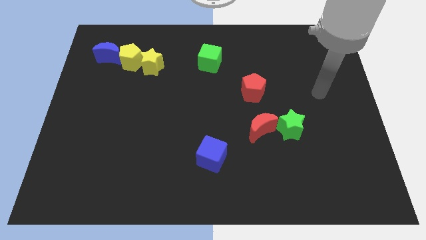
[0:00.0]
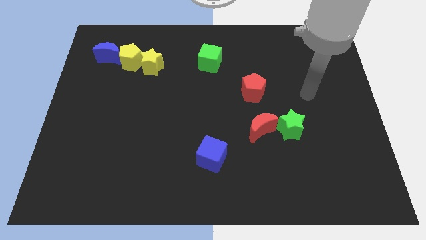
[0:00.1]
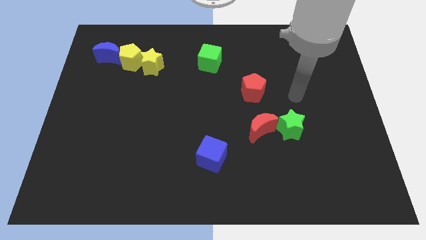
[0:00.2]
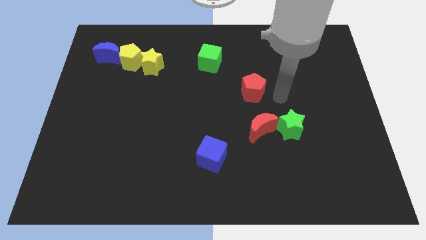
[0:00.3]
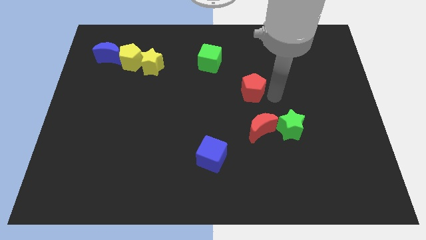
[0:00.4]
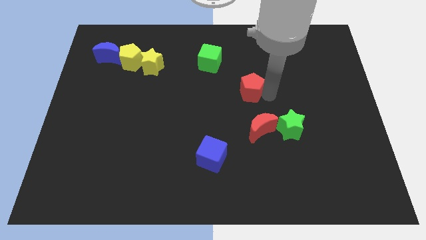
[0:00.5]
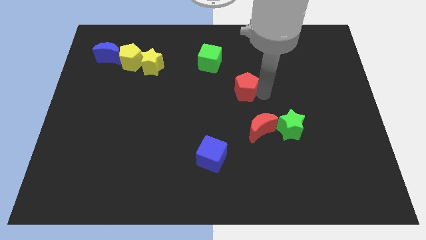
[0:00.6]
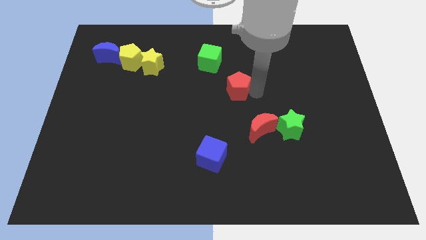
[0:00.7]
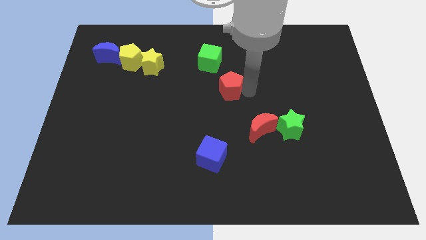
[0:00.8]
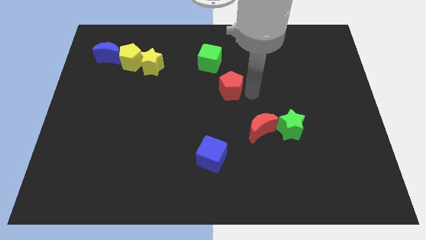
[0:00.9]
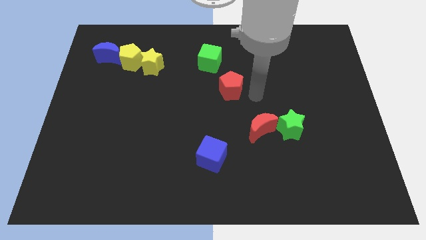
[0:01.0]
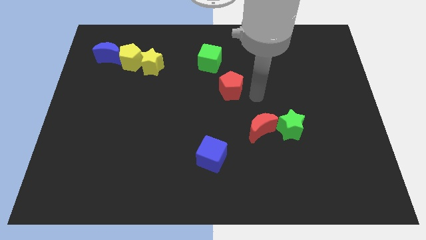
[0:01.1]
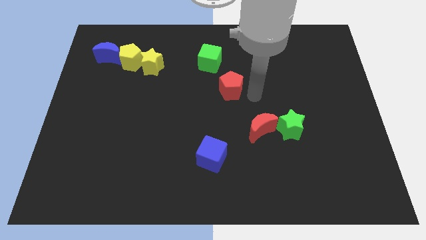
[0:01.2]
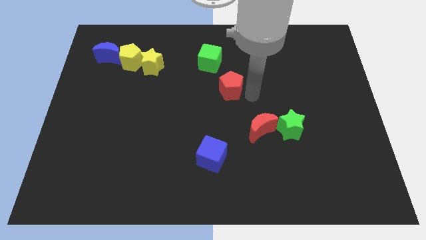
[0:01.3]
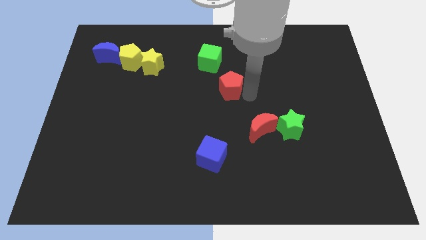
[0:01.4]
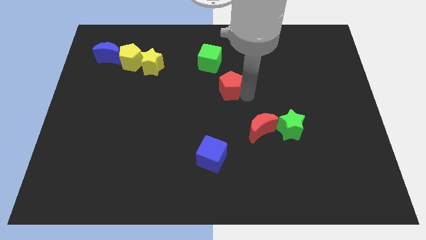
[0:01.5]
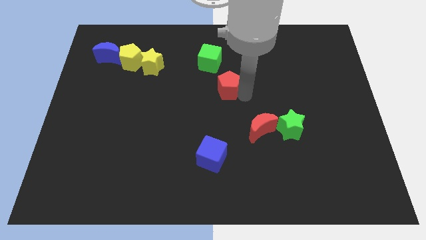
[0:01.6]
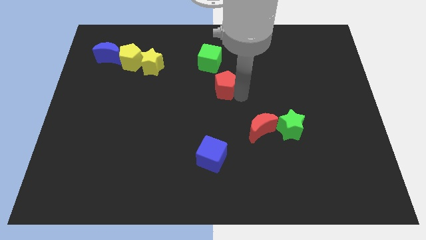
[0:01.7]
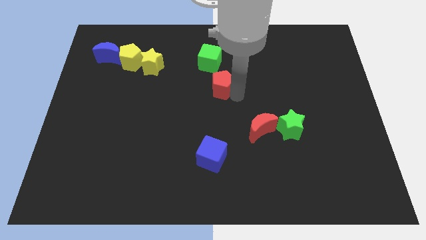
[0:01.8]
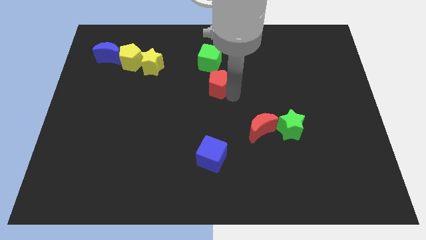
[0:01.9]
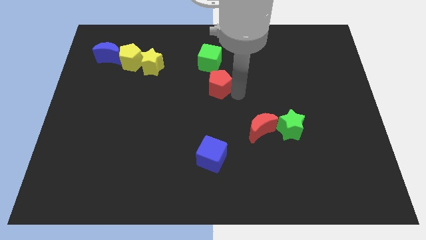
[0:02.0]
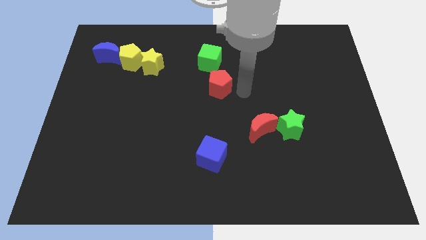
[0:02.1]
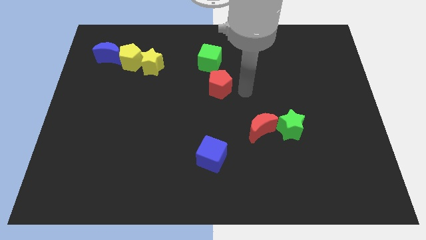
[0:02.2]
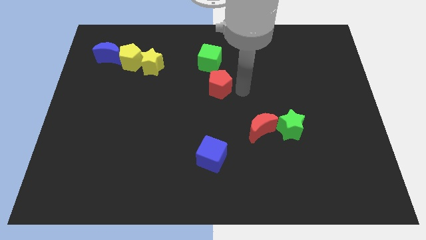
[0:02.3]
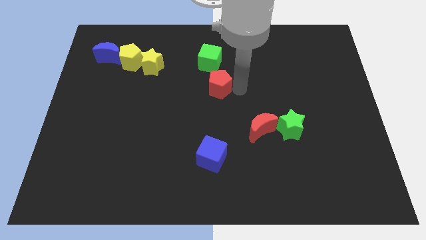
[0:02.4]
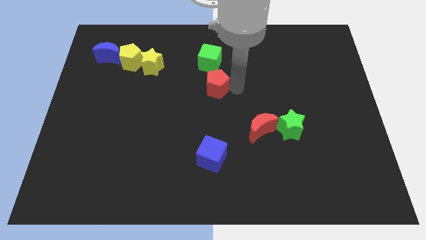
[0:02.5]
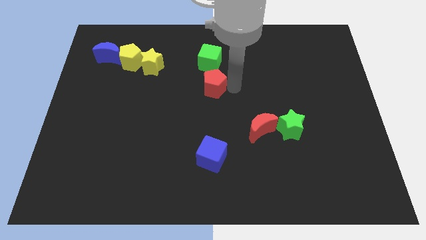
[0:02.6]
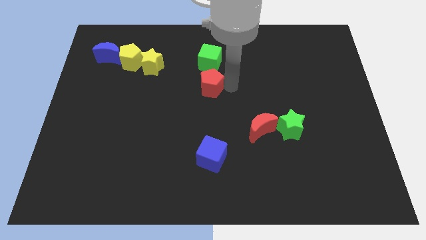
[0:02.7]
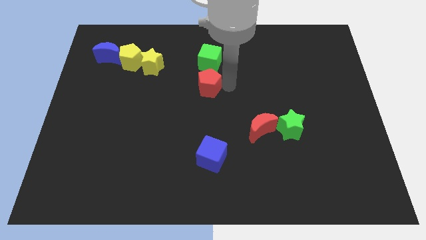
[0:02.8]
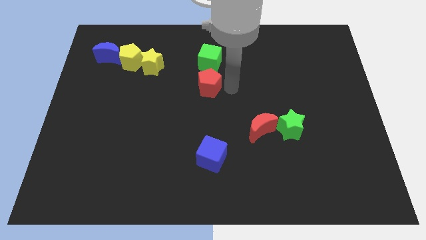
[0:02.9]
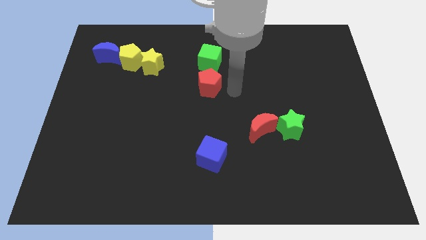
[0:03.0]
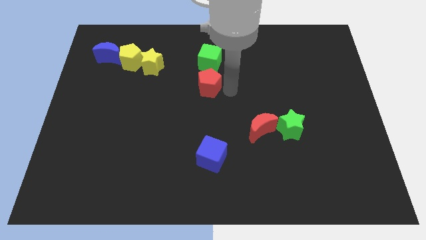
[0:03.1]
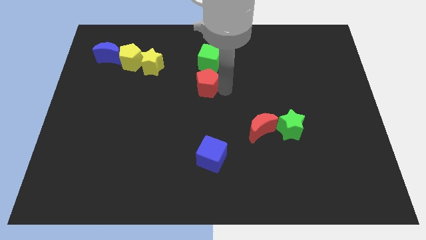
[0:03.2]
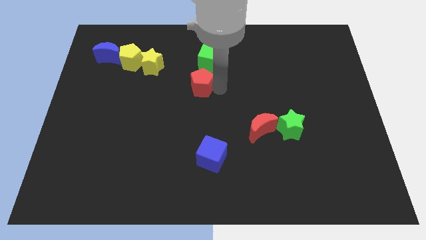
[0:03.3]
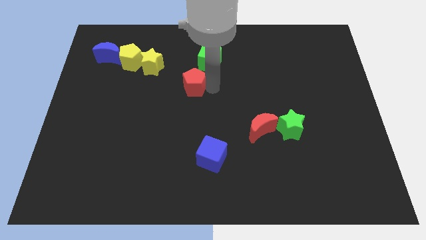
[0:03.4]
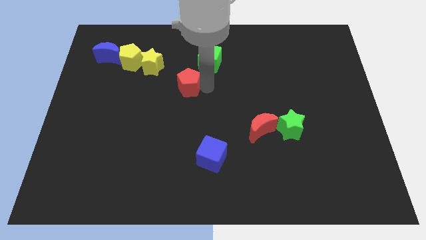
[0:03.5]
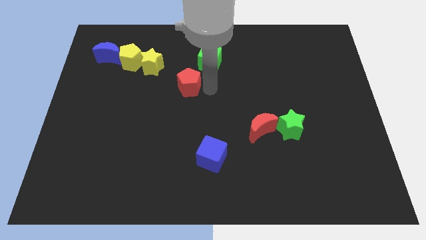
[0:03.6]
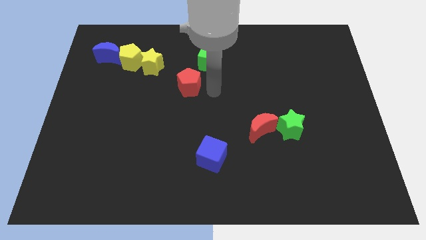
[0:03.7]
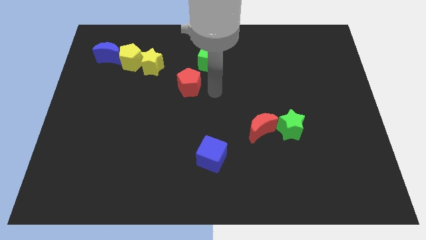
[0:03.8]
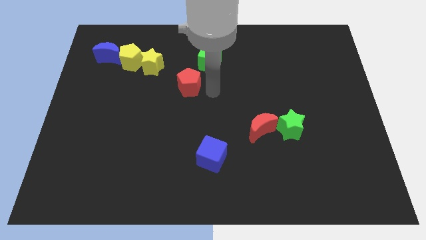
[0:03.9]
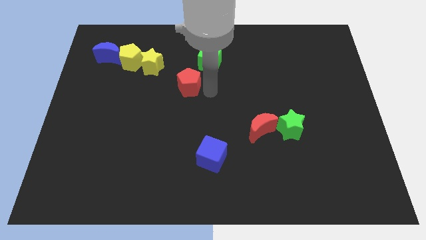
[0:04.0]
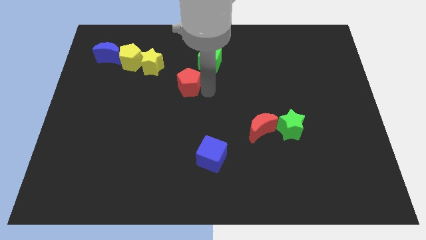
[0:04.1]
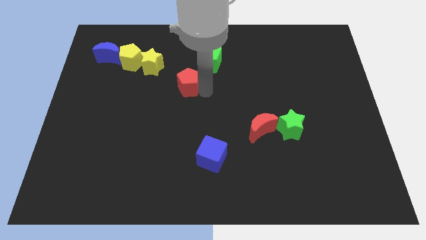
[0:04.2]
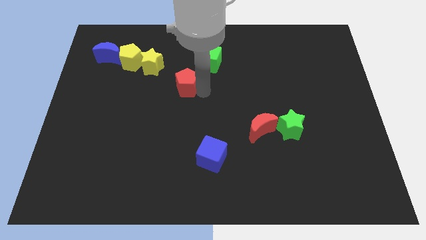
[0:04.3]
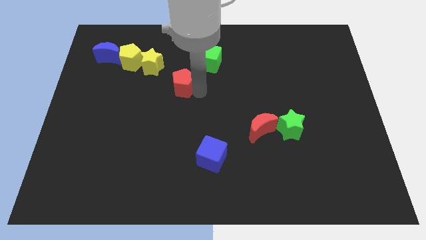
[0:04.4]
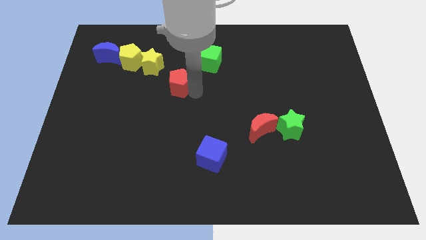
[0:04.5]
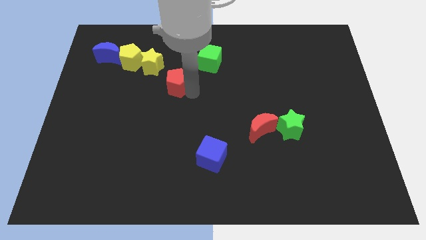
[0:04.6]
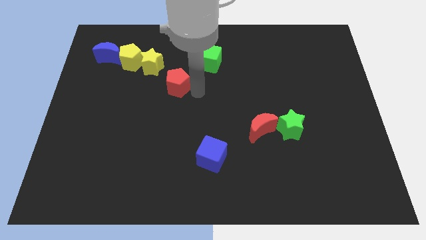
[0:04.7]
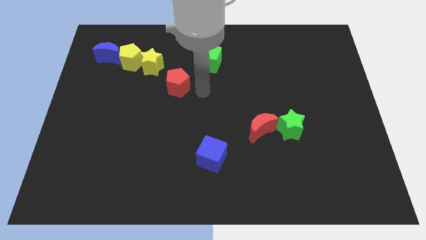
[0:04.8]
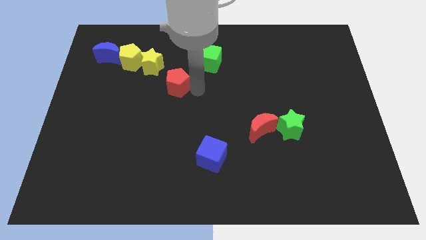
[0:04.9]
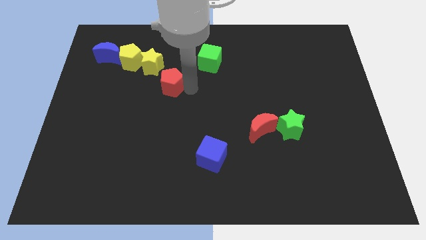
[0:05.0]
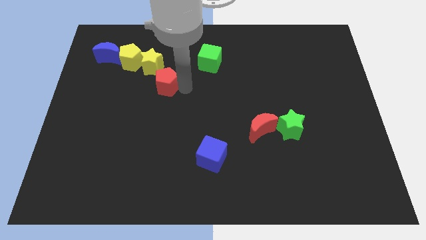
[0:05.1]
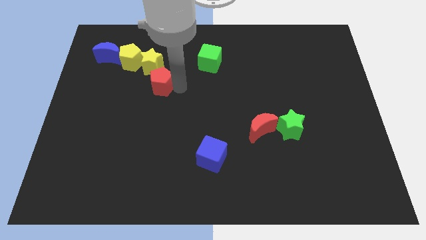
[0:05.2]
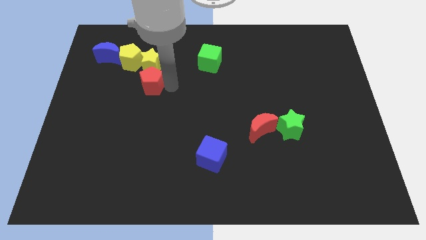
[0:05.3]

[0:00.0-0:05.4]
put the red pentagon to the bottom left of the yellow star

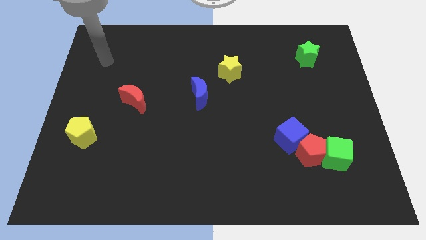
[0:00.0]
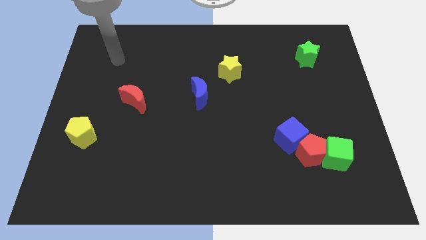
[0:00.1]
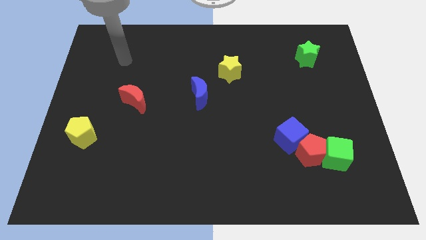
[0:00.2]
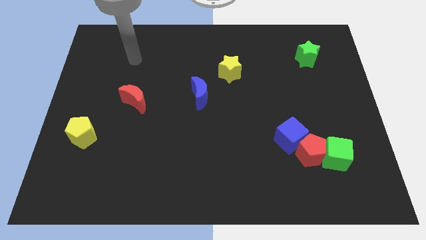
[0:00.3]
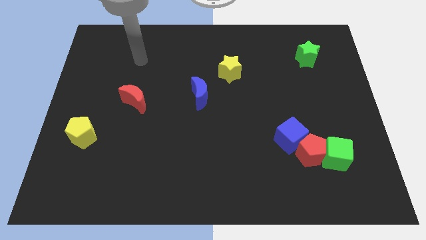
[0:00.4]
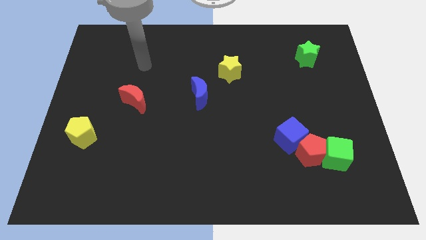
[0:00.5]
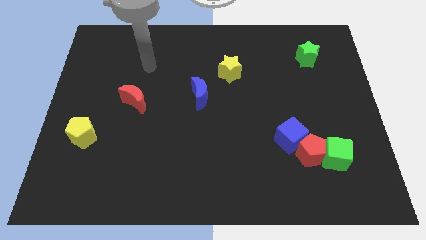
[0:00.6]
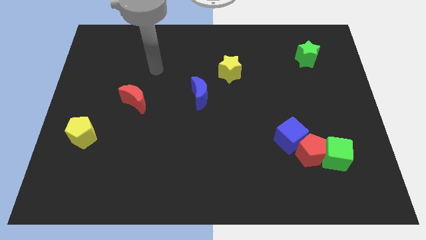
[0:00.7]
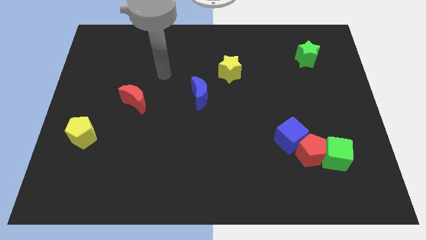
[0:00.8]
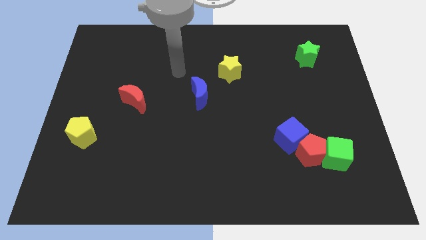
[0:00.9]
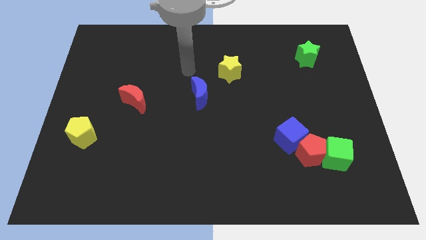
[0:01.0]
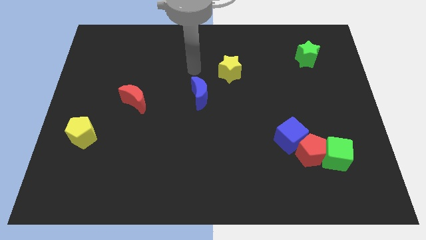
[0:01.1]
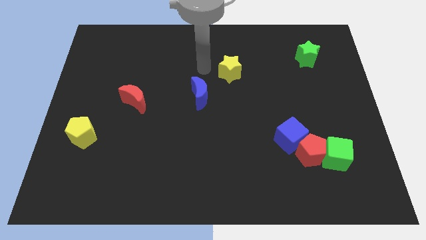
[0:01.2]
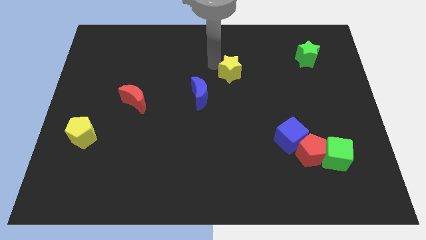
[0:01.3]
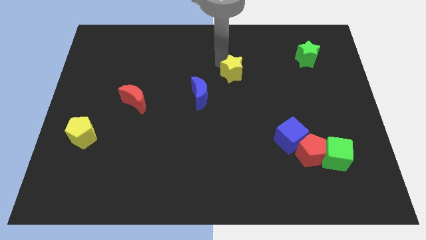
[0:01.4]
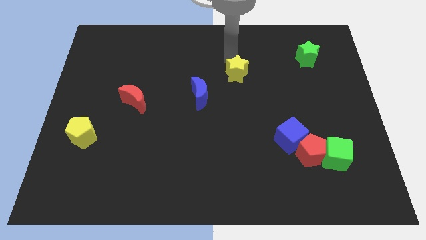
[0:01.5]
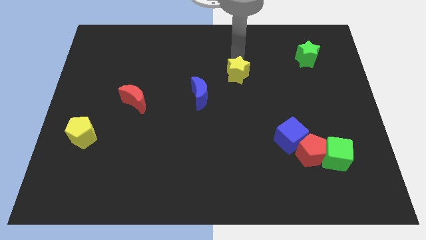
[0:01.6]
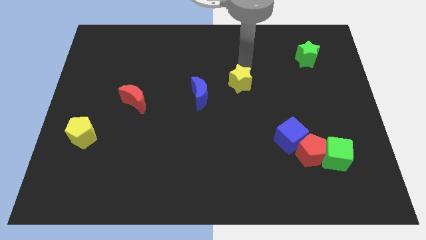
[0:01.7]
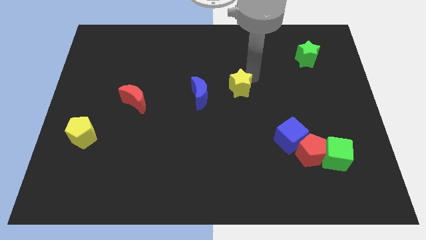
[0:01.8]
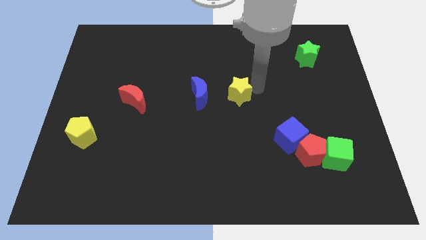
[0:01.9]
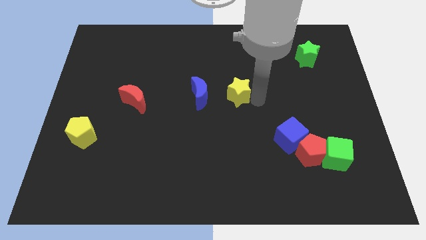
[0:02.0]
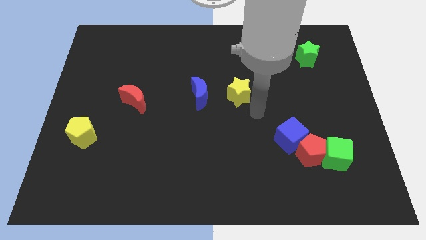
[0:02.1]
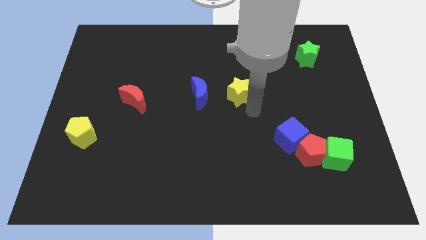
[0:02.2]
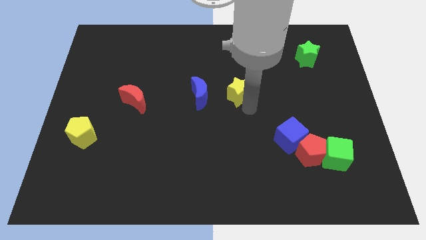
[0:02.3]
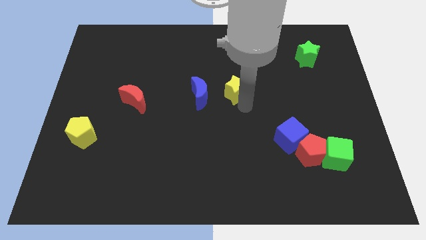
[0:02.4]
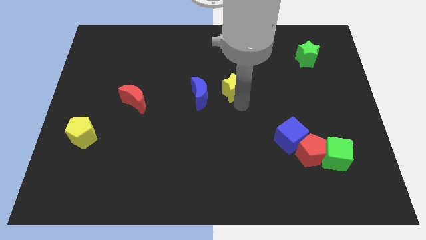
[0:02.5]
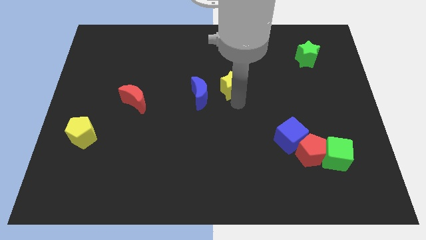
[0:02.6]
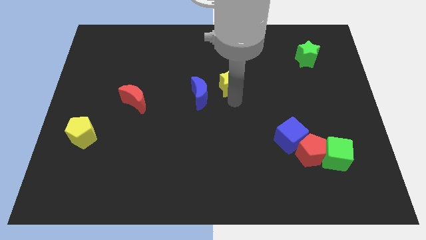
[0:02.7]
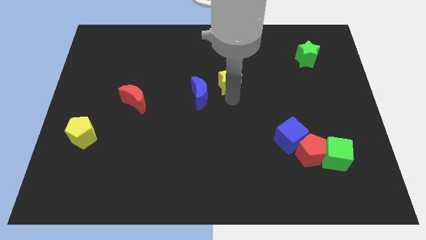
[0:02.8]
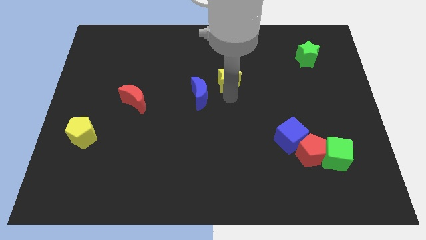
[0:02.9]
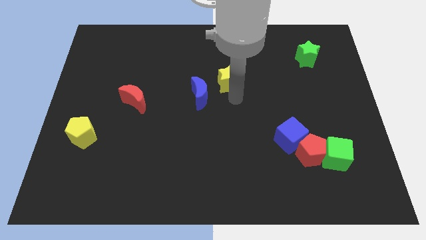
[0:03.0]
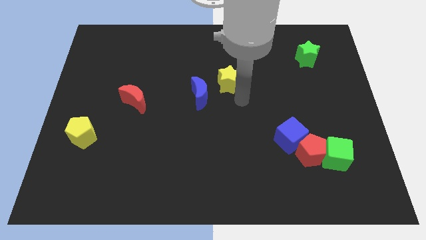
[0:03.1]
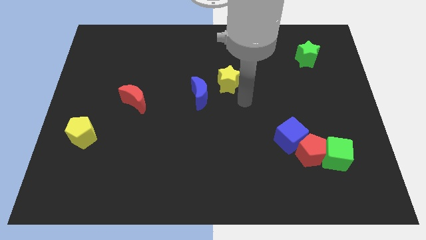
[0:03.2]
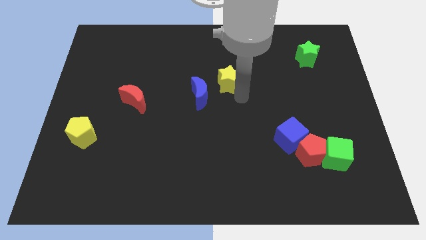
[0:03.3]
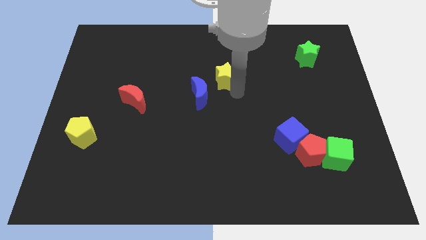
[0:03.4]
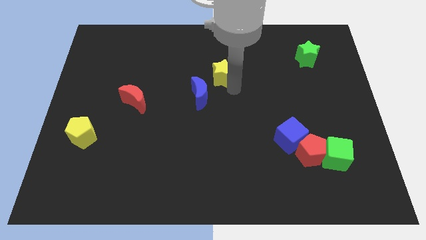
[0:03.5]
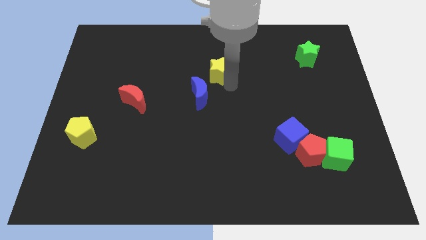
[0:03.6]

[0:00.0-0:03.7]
put the yellow star above the blue moon
